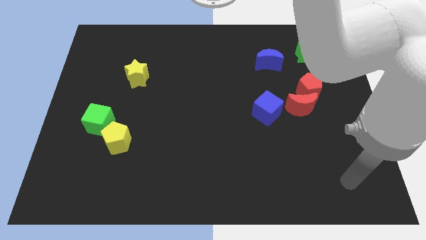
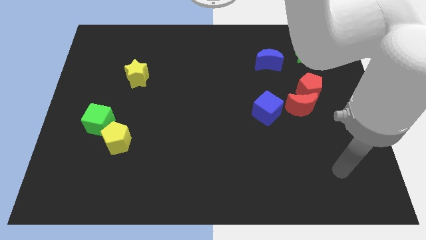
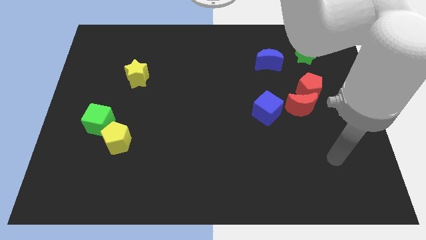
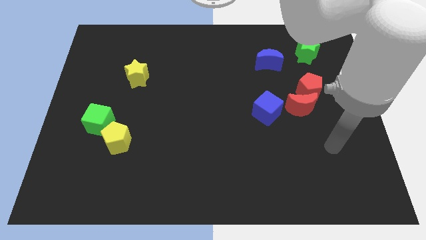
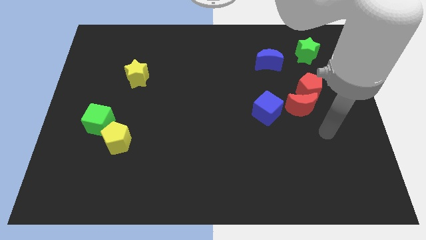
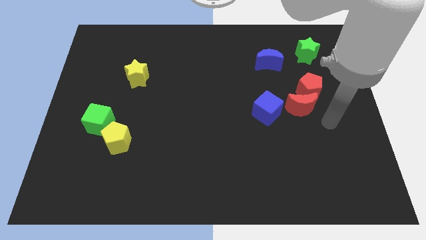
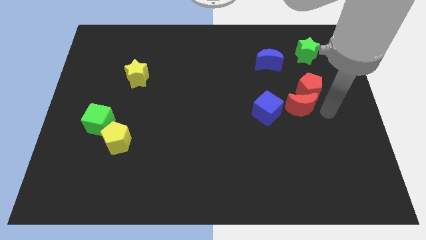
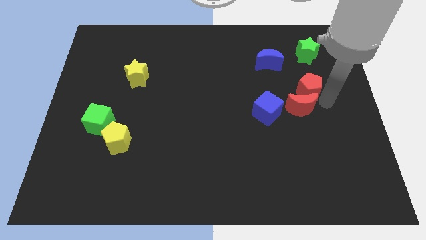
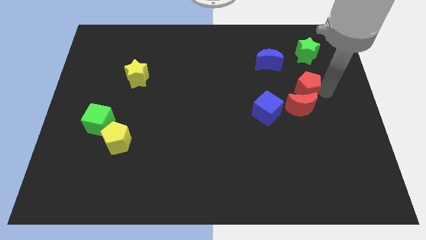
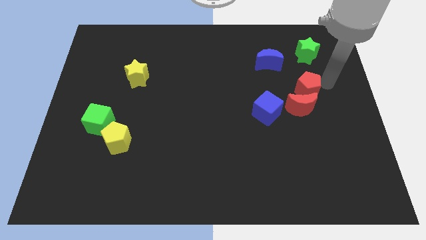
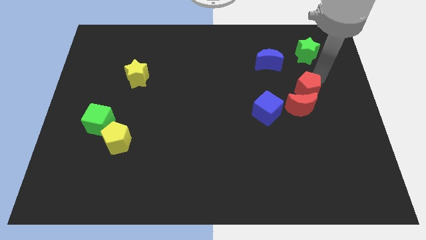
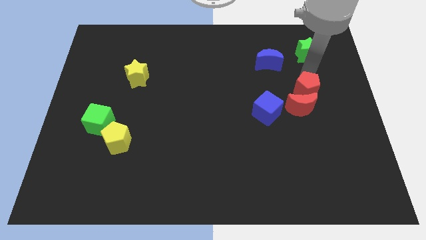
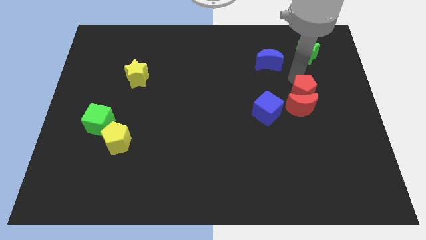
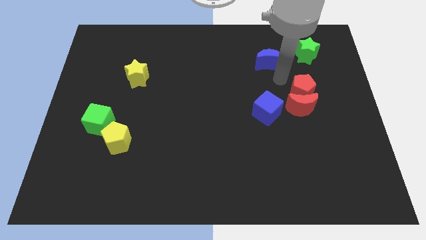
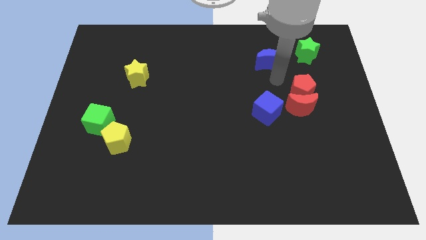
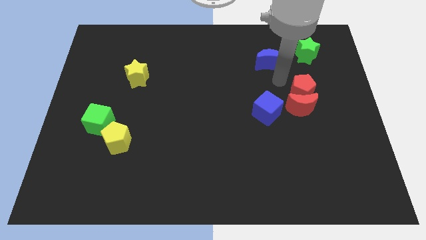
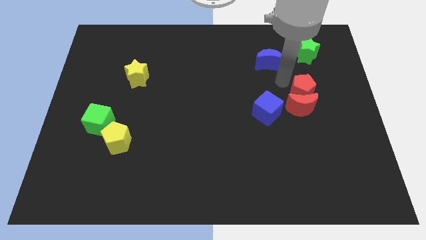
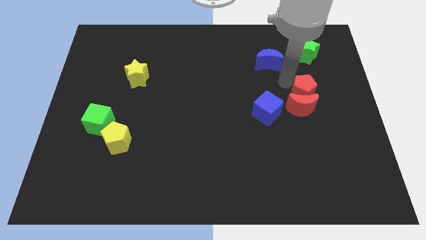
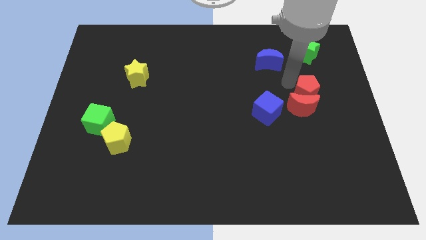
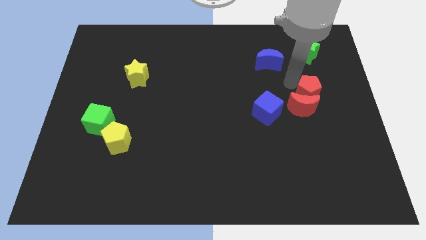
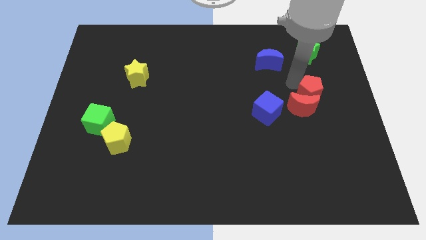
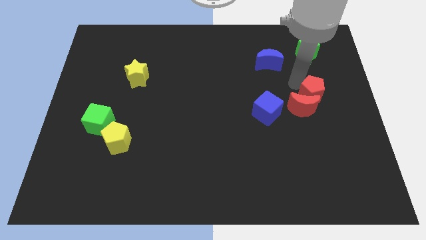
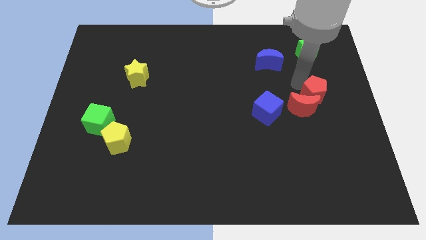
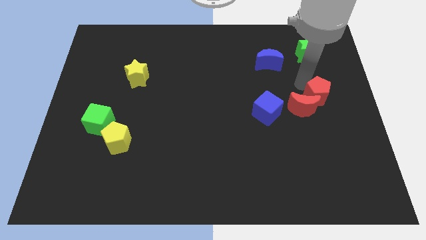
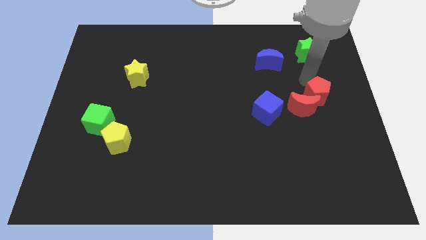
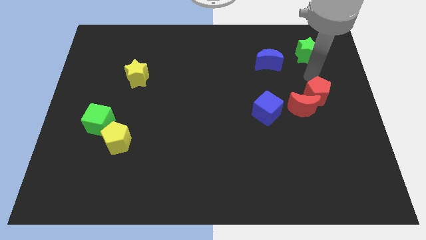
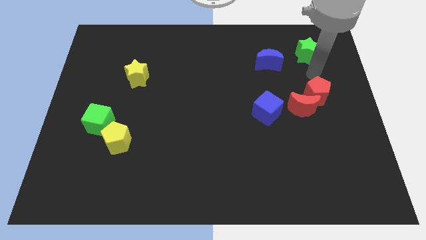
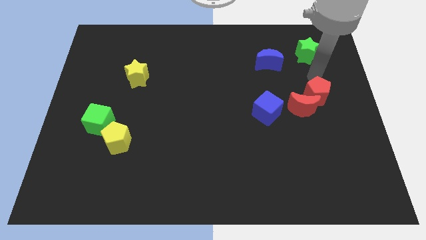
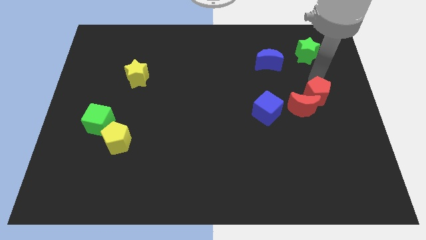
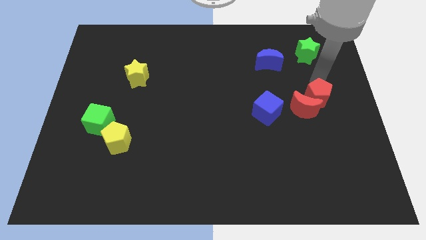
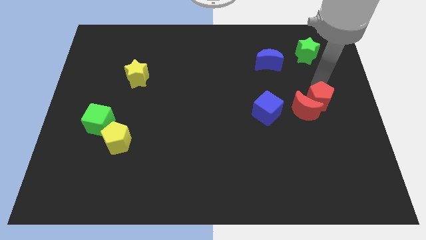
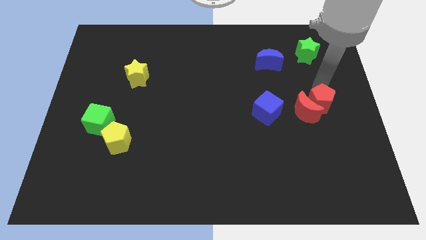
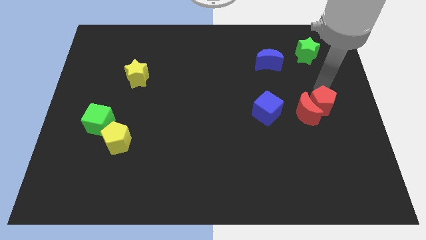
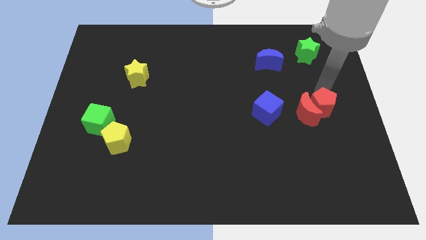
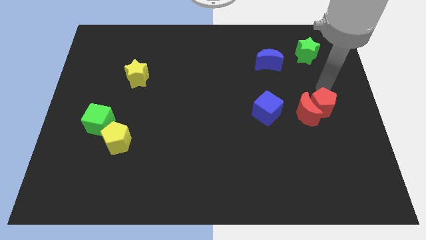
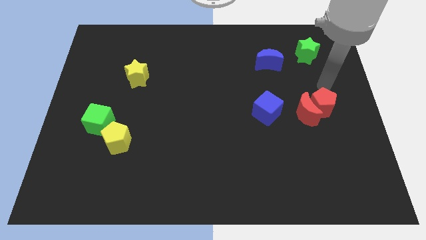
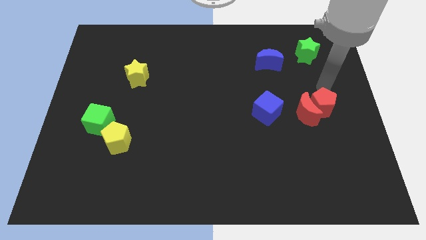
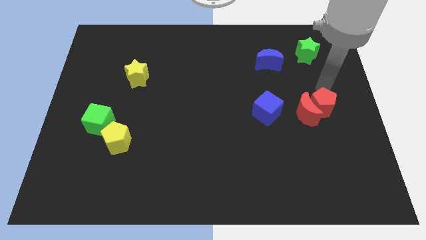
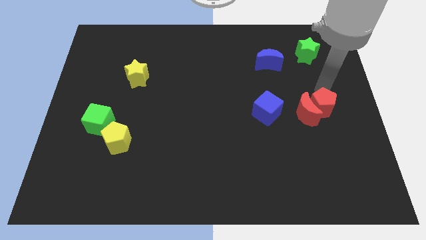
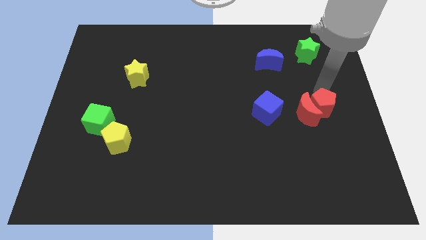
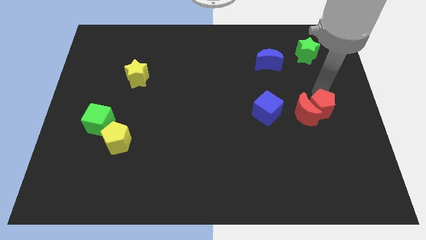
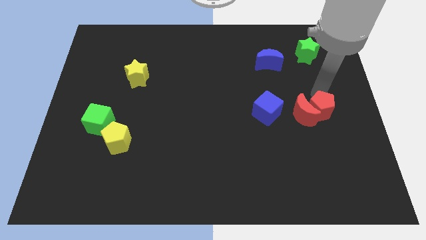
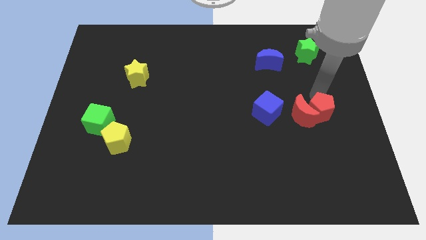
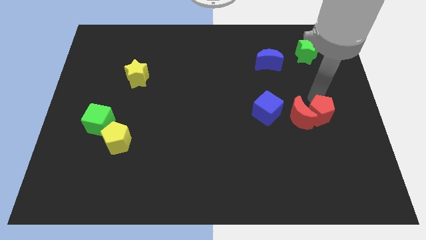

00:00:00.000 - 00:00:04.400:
push the red pentagon a little down

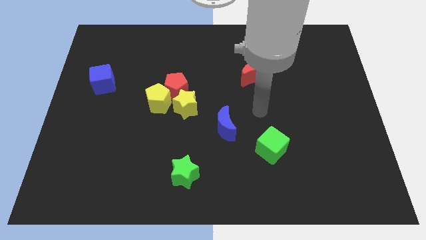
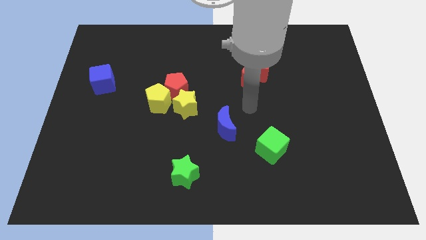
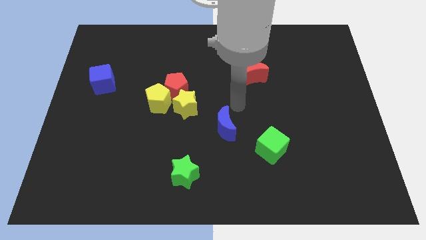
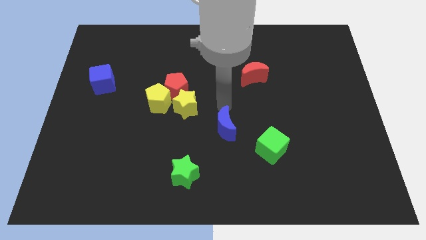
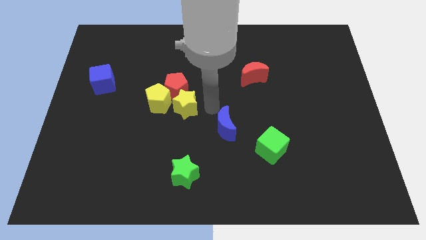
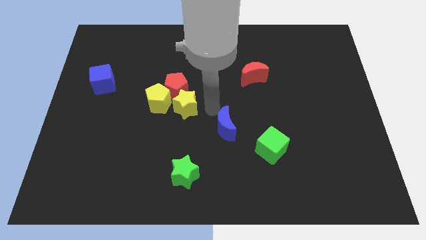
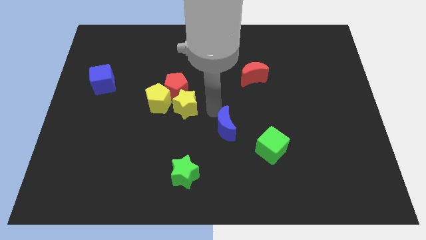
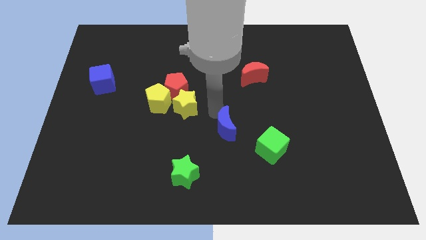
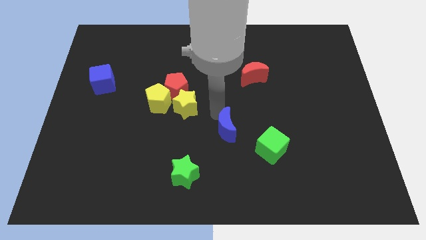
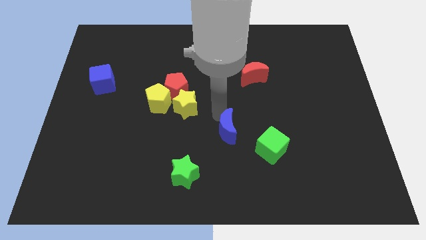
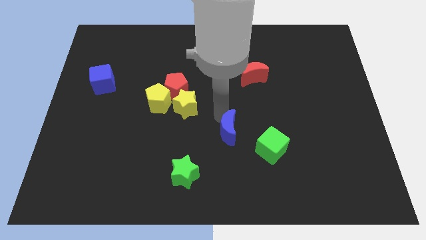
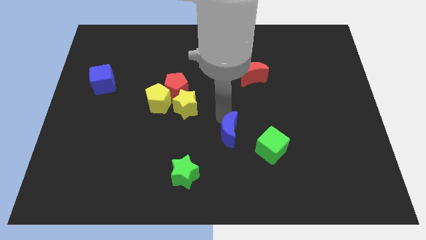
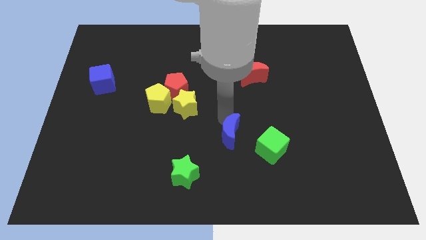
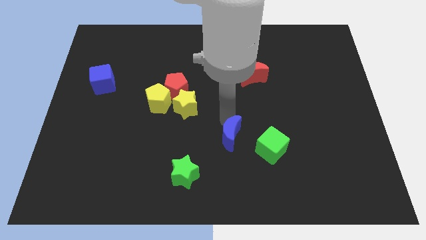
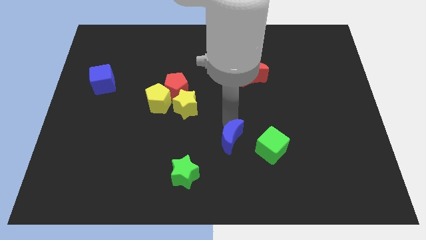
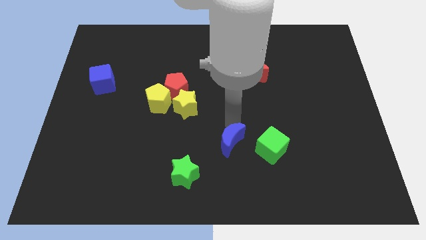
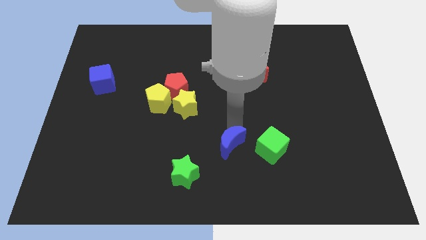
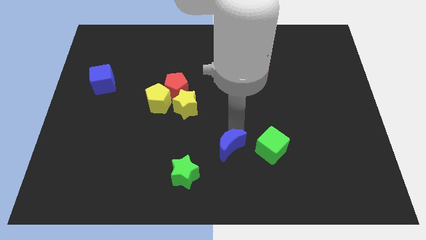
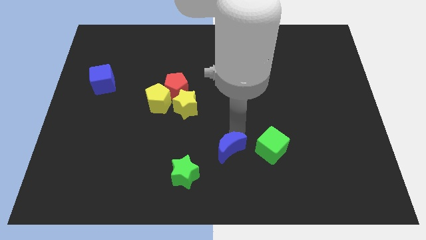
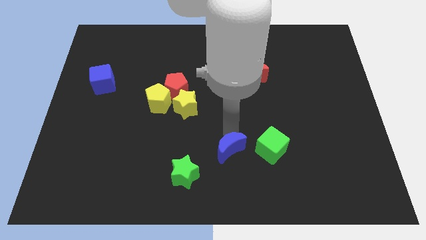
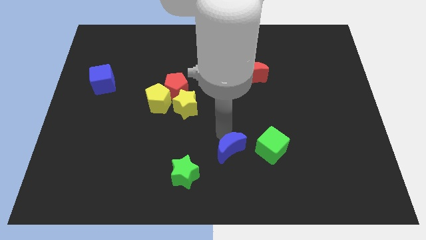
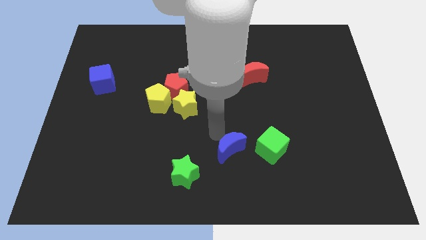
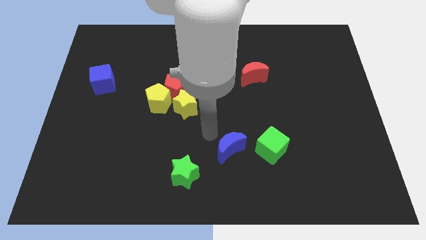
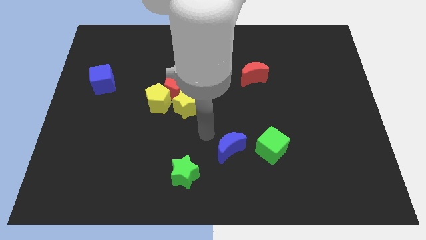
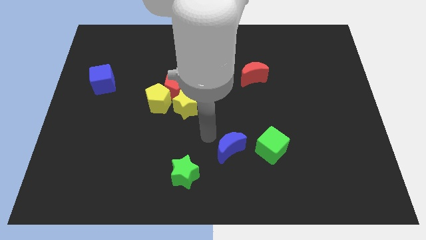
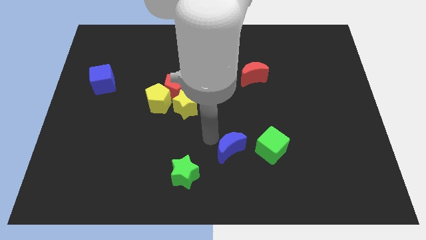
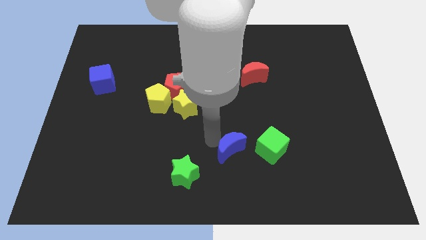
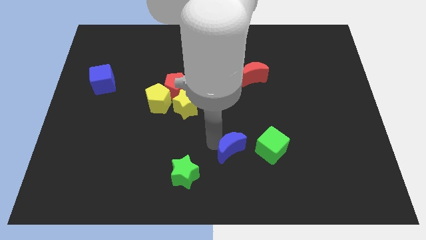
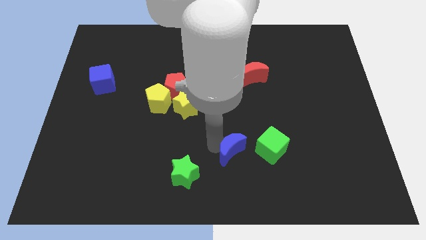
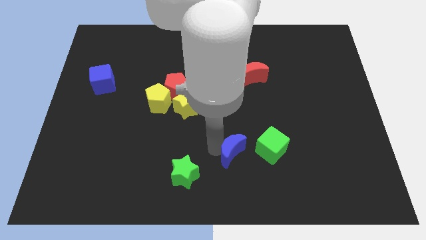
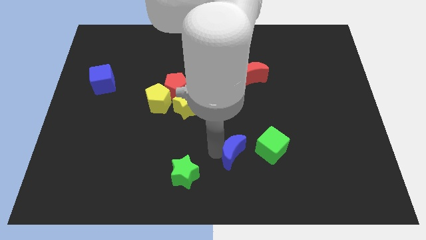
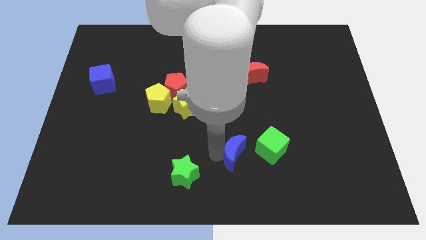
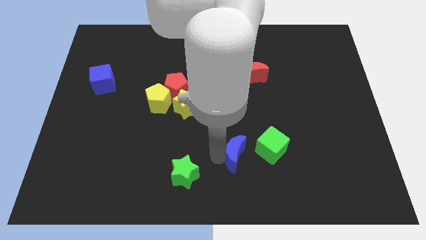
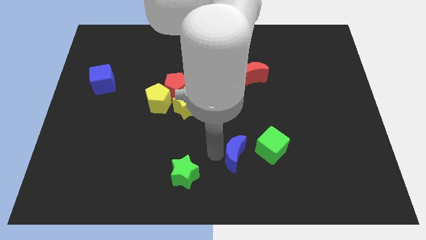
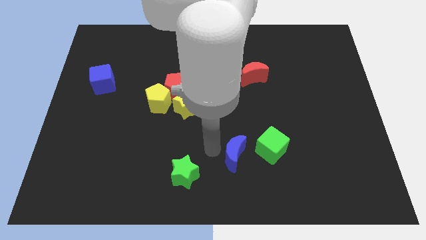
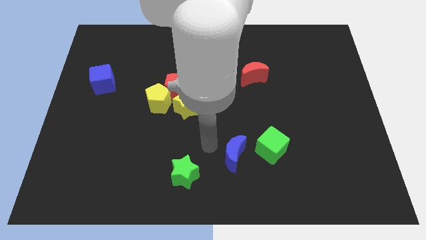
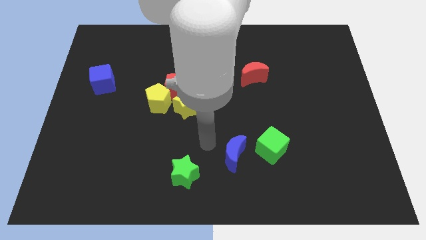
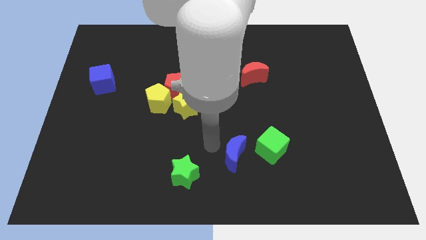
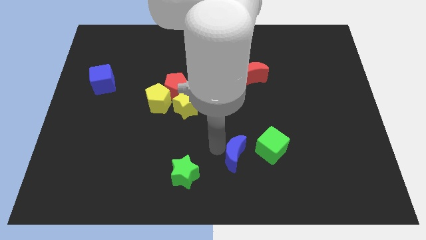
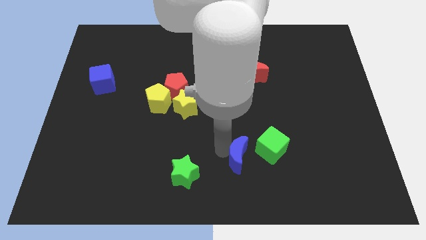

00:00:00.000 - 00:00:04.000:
move the blue moon a little downwards and then right

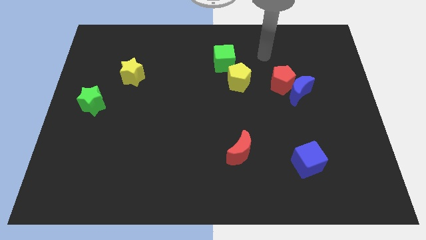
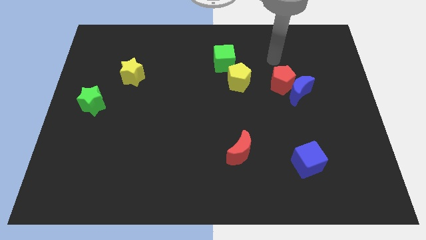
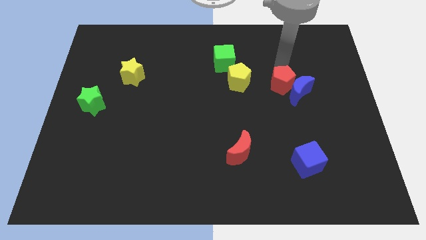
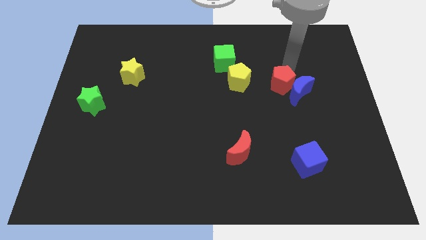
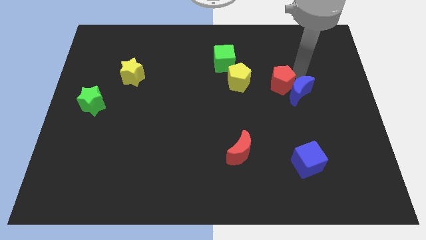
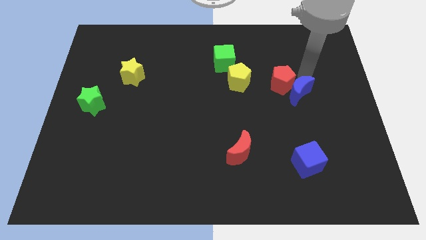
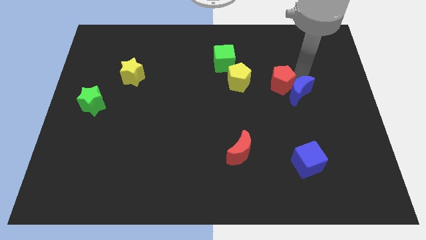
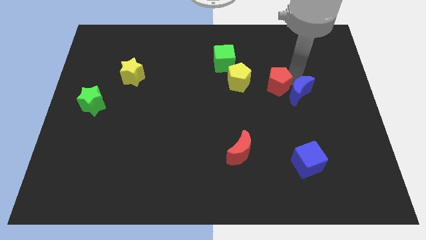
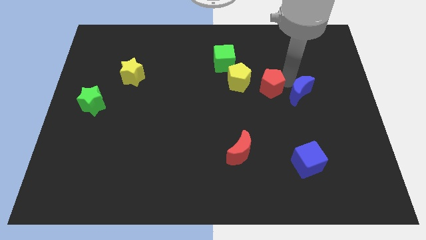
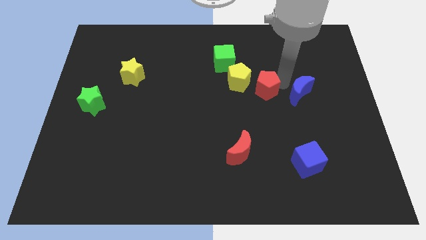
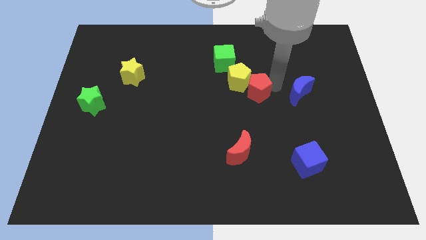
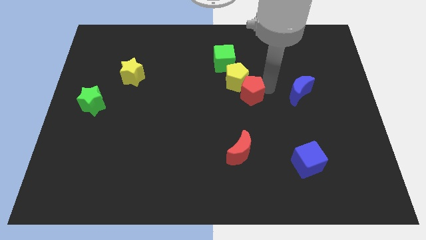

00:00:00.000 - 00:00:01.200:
move the red pentagon left slightly
